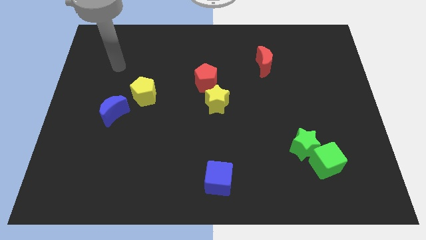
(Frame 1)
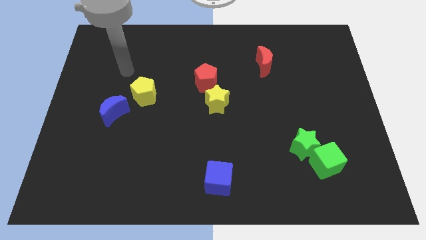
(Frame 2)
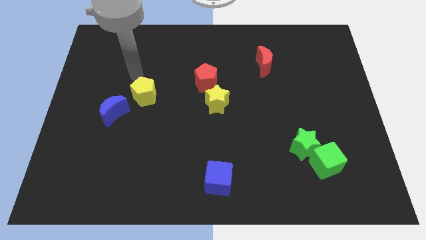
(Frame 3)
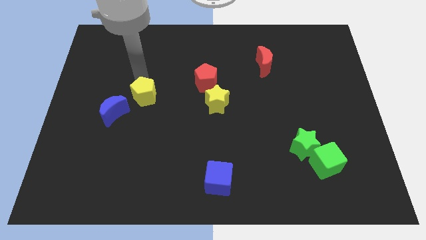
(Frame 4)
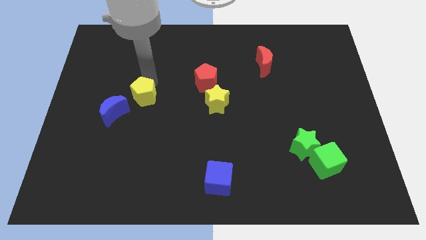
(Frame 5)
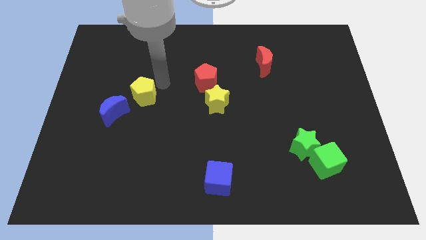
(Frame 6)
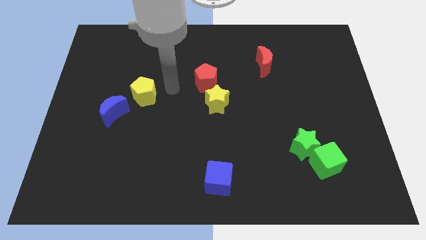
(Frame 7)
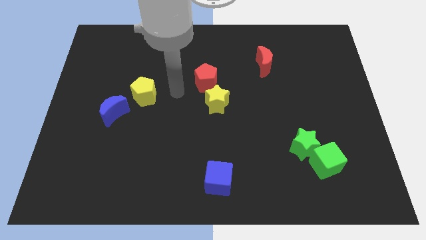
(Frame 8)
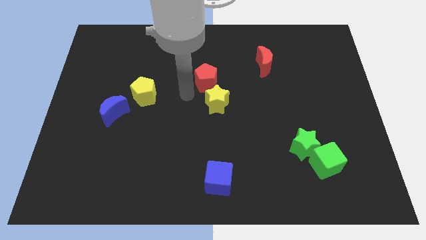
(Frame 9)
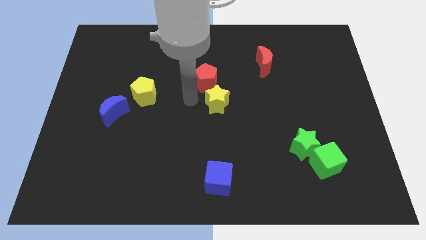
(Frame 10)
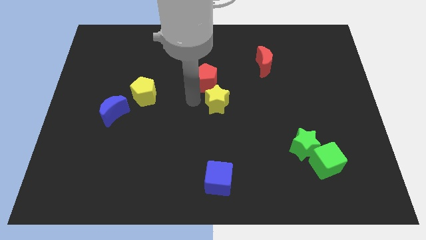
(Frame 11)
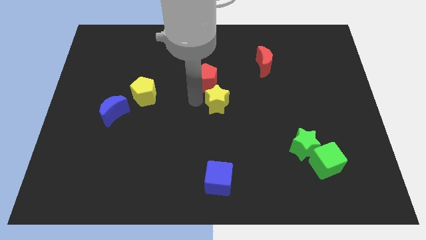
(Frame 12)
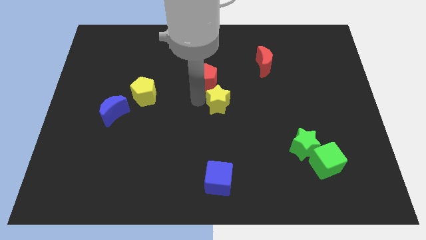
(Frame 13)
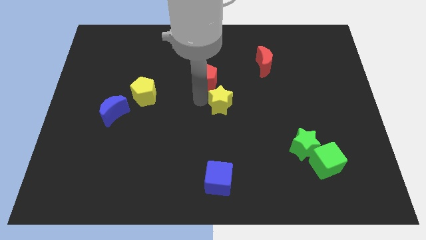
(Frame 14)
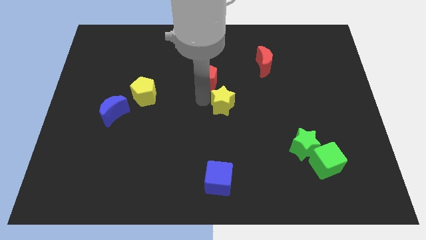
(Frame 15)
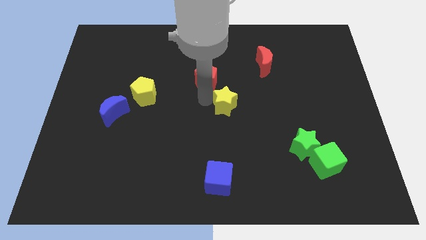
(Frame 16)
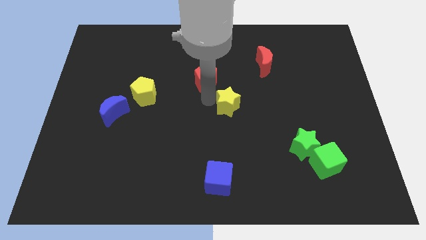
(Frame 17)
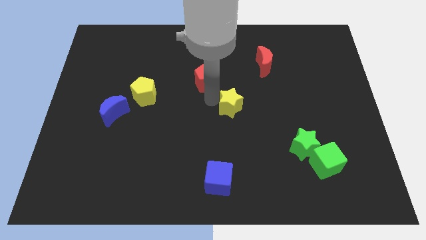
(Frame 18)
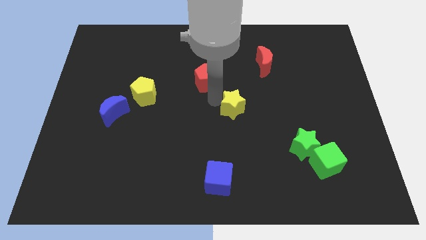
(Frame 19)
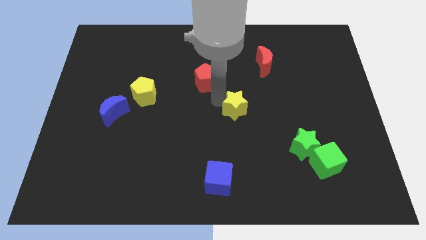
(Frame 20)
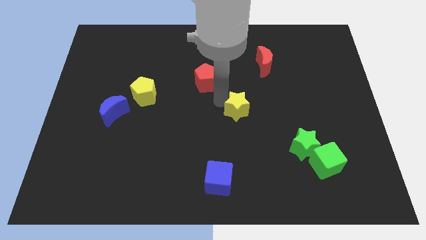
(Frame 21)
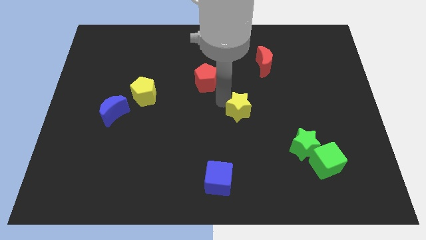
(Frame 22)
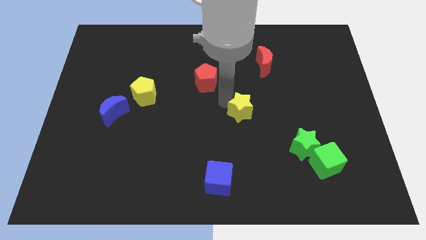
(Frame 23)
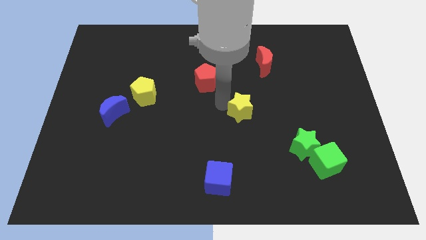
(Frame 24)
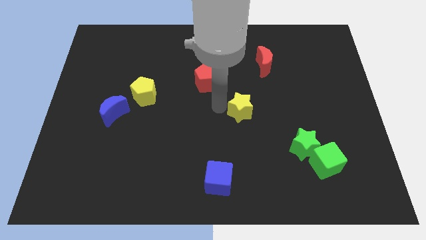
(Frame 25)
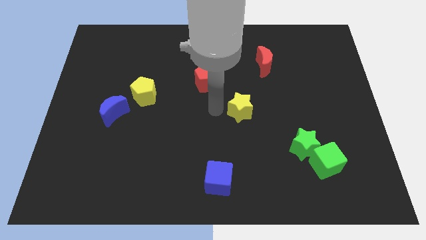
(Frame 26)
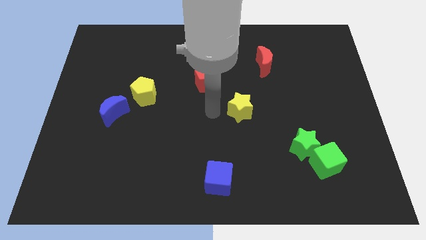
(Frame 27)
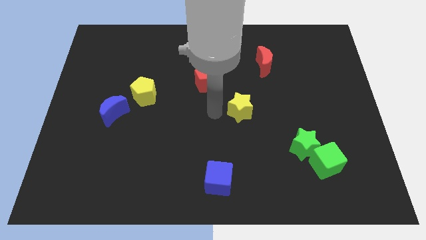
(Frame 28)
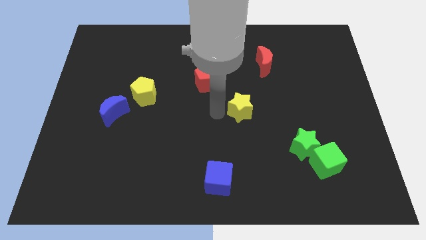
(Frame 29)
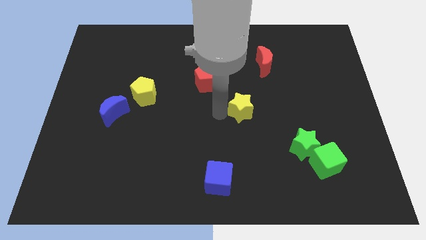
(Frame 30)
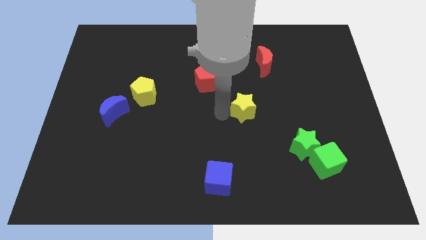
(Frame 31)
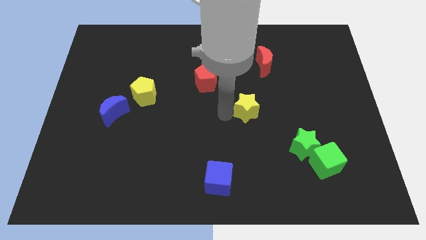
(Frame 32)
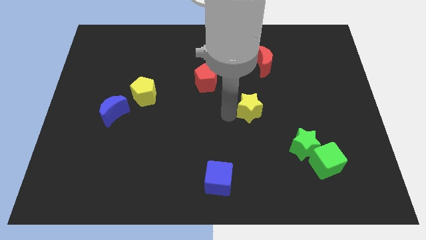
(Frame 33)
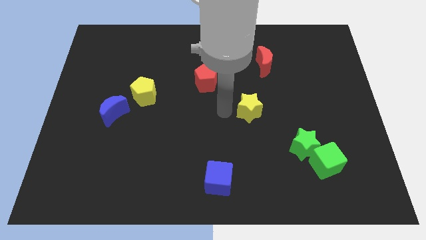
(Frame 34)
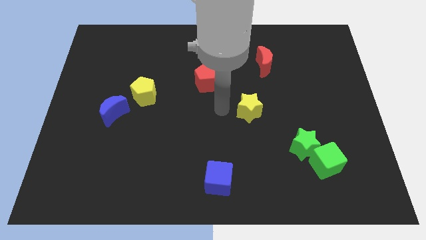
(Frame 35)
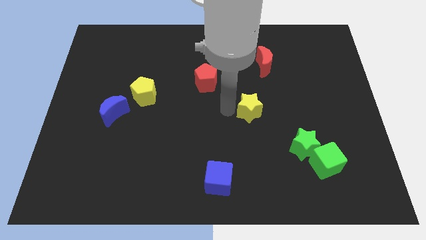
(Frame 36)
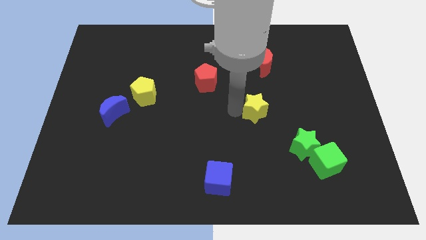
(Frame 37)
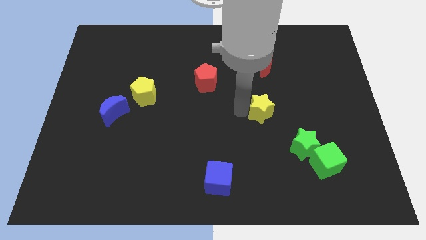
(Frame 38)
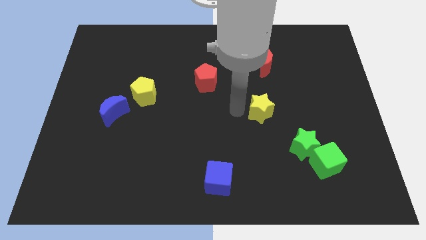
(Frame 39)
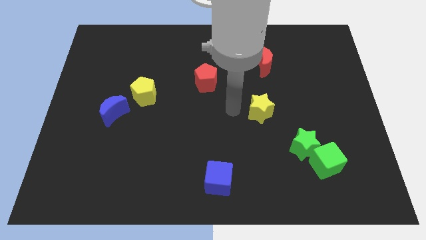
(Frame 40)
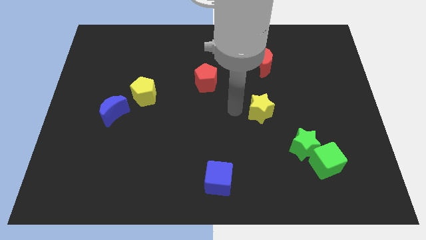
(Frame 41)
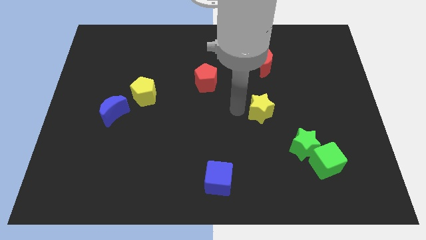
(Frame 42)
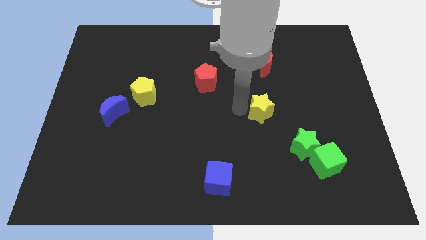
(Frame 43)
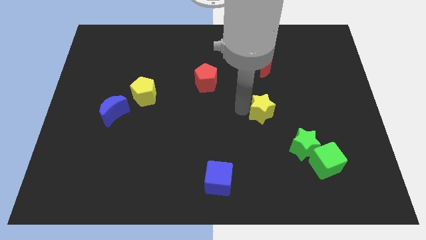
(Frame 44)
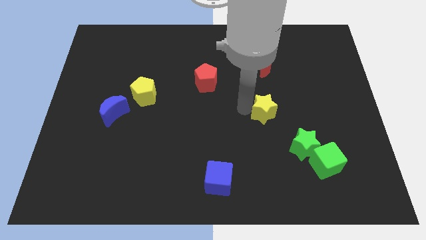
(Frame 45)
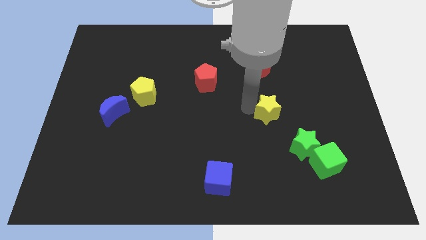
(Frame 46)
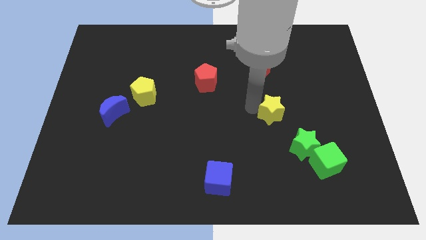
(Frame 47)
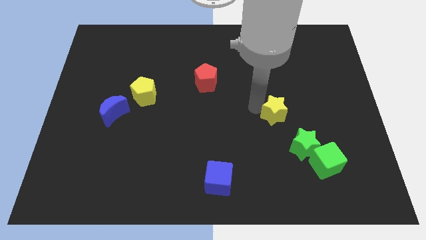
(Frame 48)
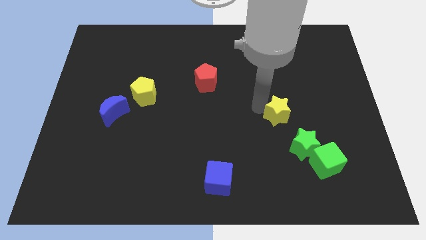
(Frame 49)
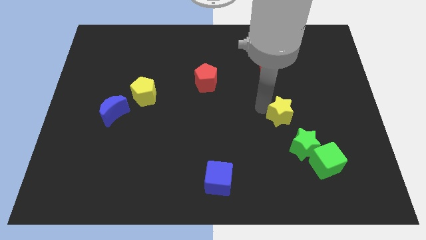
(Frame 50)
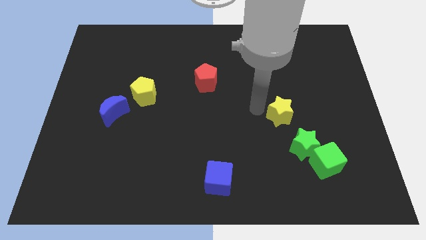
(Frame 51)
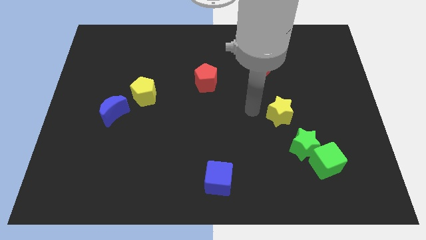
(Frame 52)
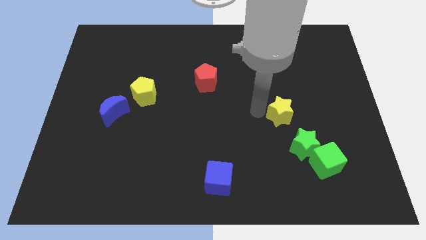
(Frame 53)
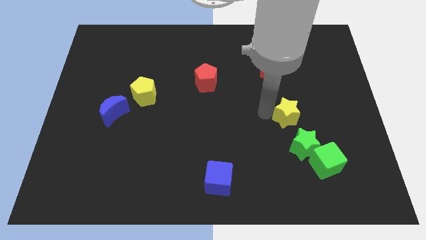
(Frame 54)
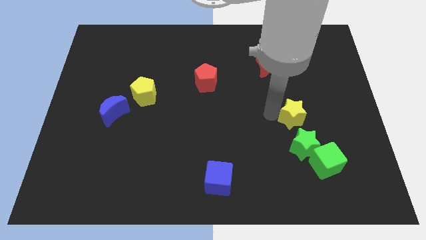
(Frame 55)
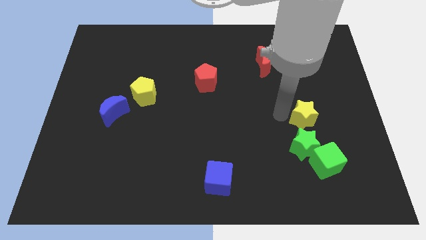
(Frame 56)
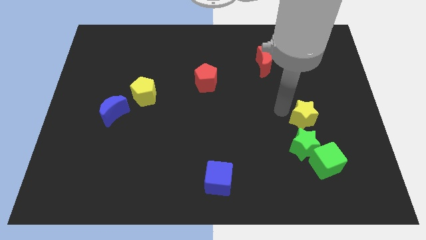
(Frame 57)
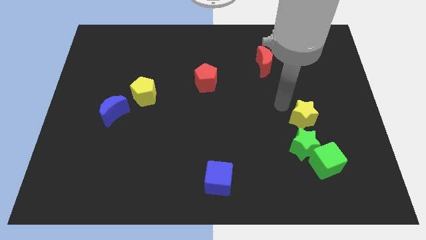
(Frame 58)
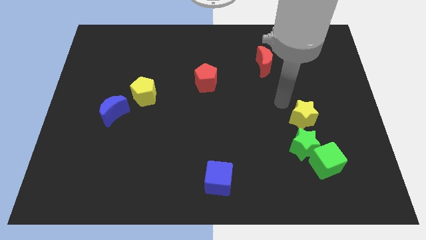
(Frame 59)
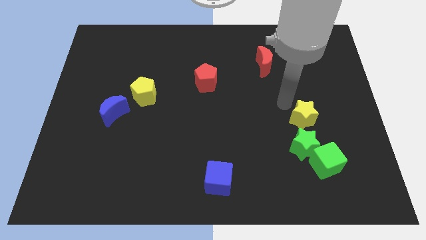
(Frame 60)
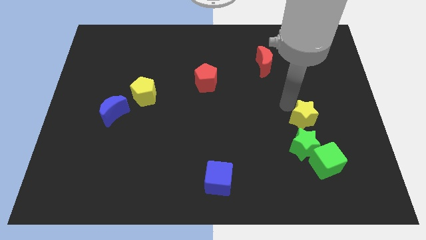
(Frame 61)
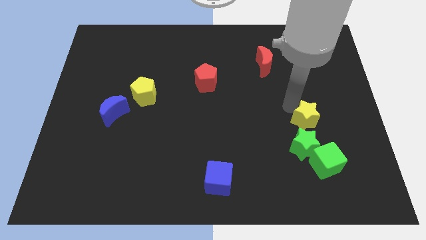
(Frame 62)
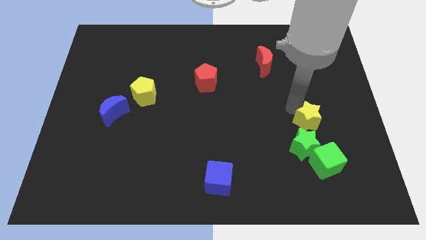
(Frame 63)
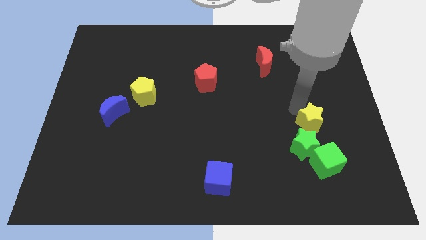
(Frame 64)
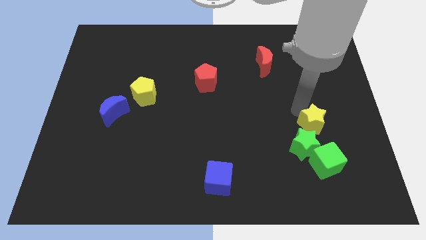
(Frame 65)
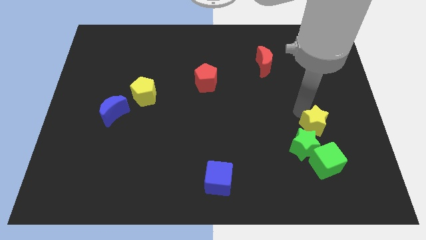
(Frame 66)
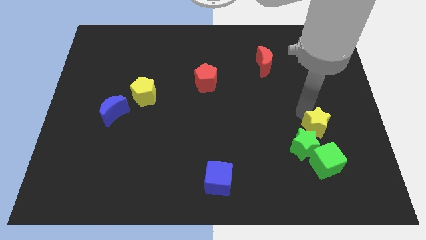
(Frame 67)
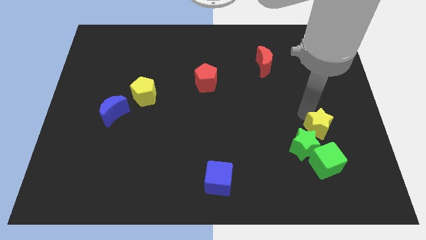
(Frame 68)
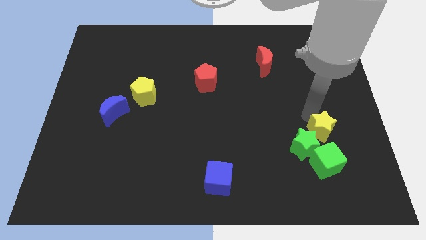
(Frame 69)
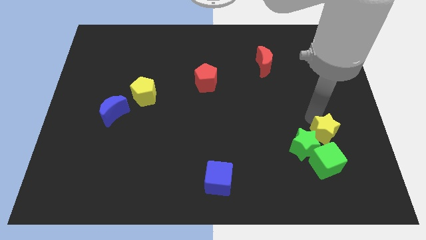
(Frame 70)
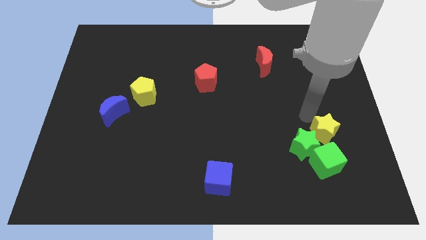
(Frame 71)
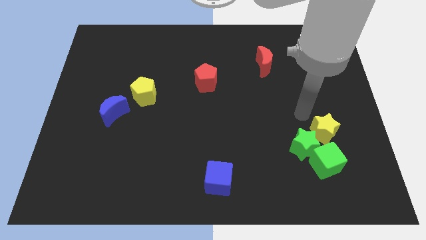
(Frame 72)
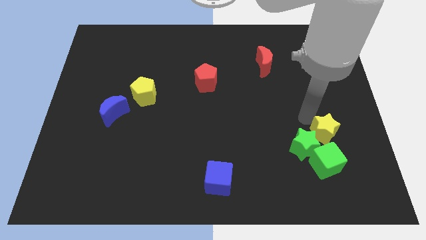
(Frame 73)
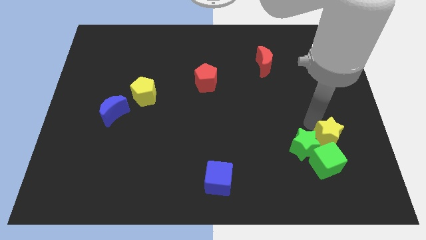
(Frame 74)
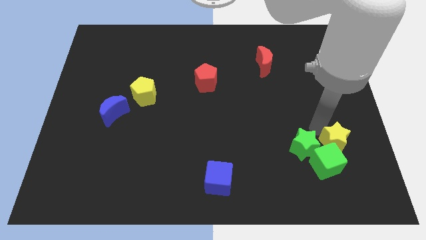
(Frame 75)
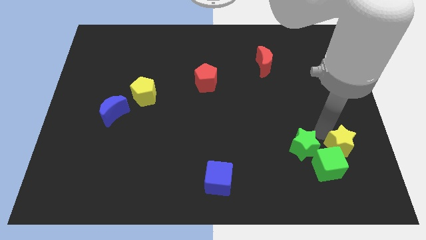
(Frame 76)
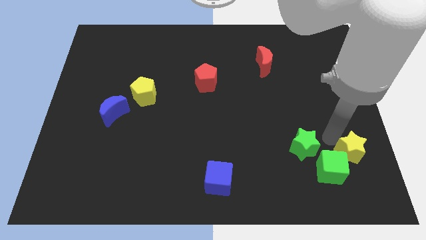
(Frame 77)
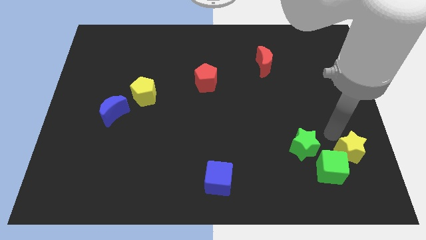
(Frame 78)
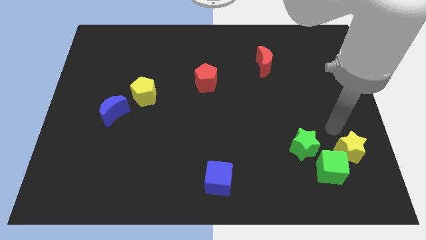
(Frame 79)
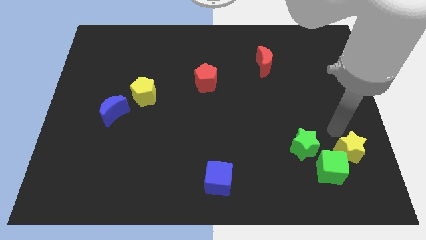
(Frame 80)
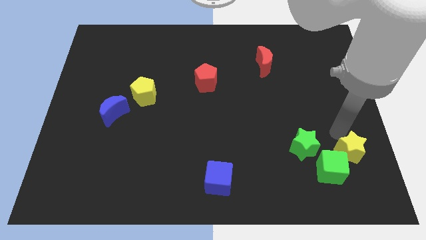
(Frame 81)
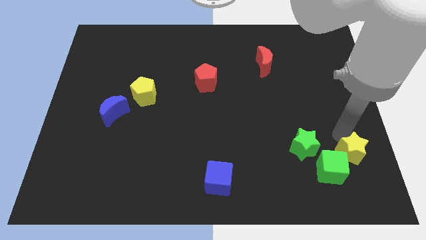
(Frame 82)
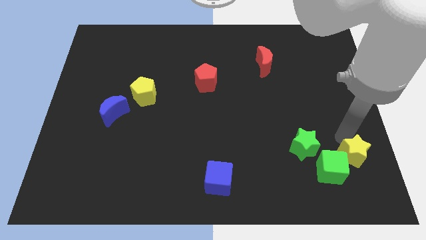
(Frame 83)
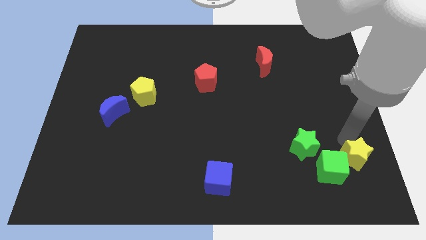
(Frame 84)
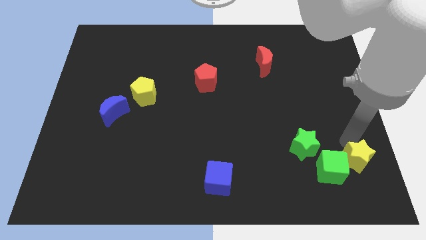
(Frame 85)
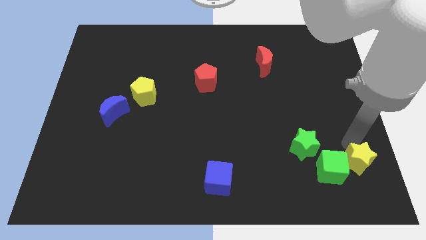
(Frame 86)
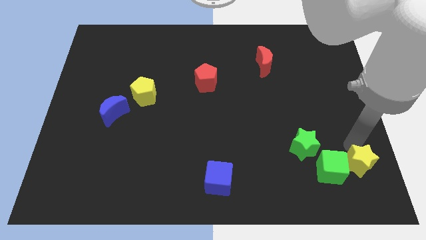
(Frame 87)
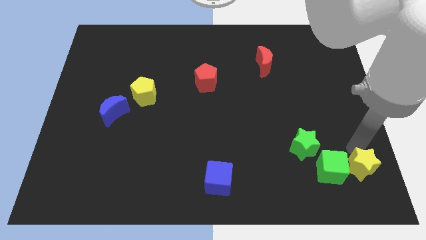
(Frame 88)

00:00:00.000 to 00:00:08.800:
slide the yellow star to the bottom right of the board
